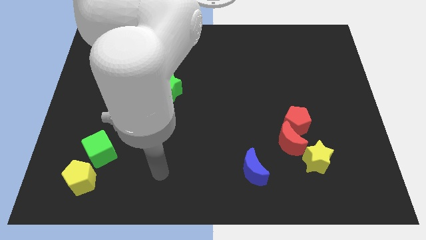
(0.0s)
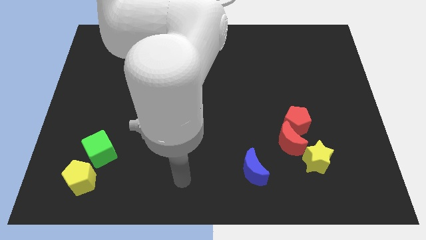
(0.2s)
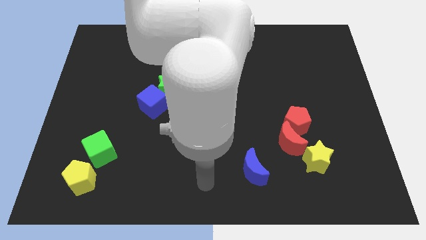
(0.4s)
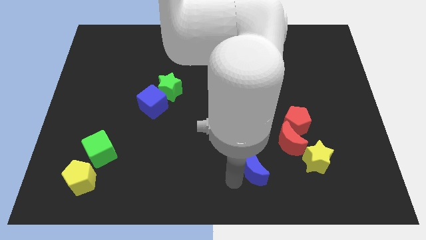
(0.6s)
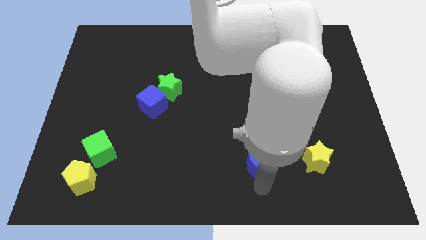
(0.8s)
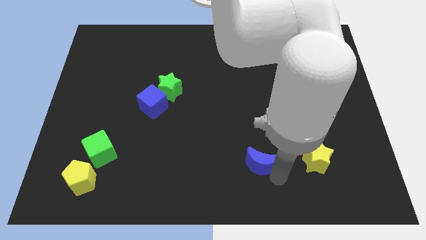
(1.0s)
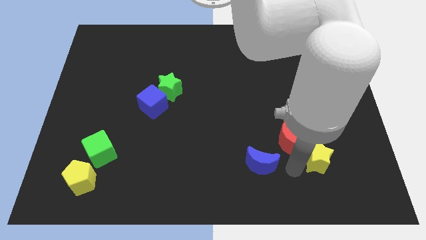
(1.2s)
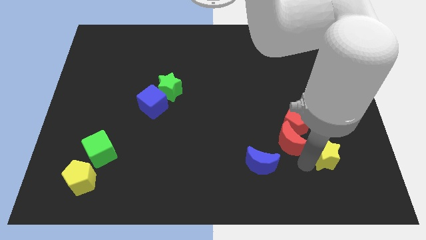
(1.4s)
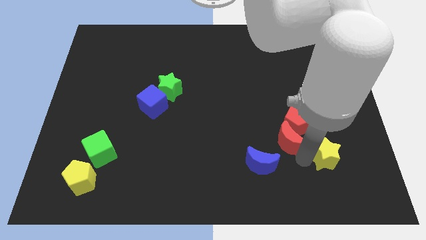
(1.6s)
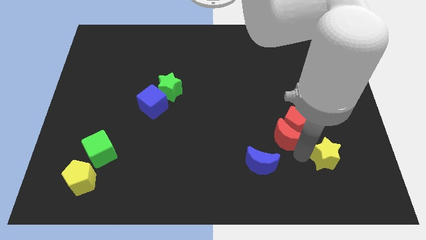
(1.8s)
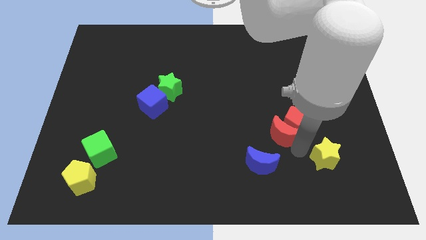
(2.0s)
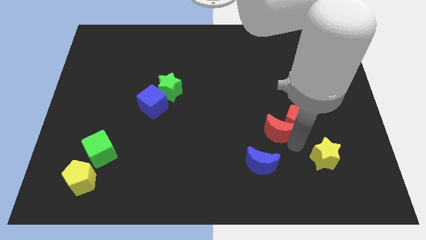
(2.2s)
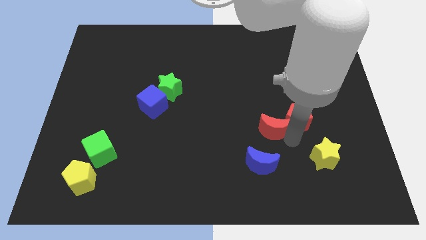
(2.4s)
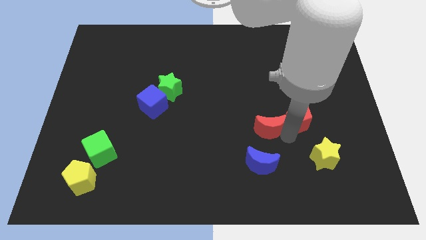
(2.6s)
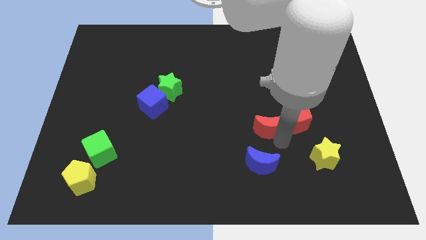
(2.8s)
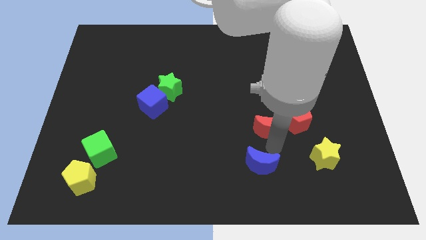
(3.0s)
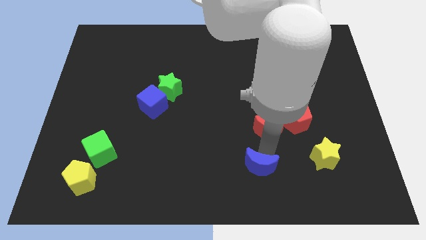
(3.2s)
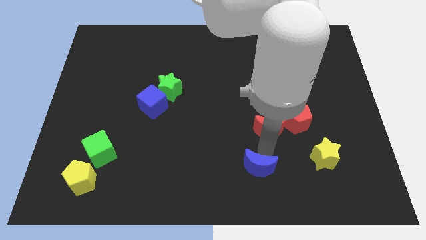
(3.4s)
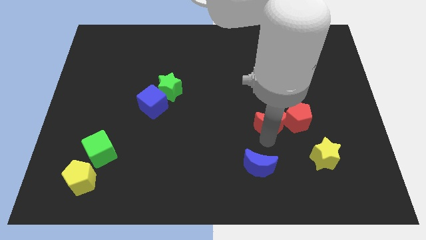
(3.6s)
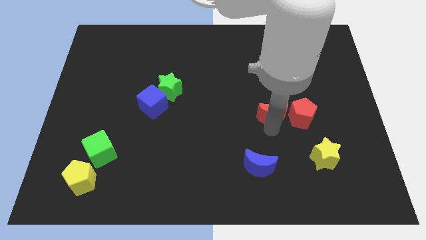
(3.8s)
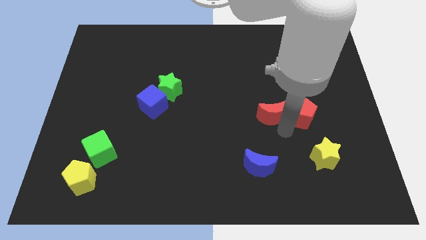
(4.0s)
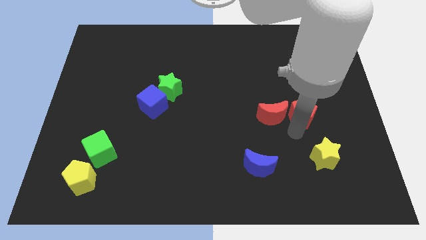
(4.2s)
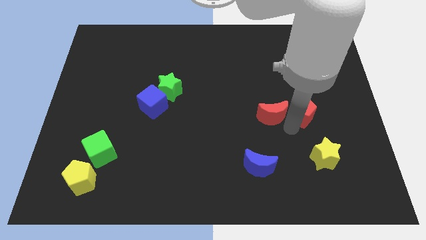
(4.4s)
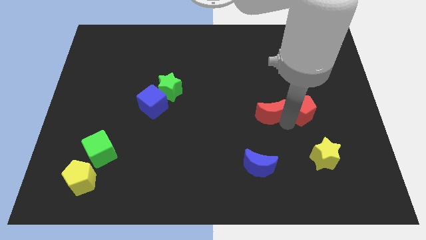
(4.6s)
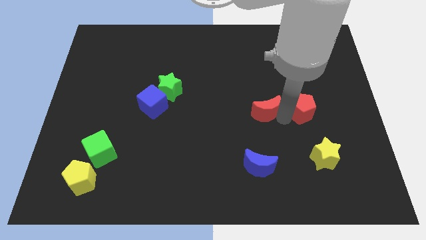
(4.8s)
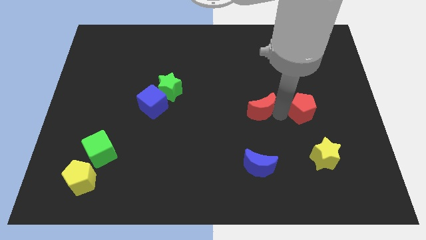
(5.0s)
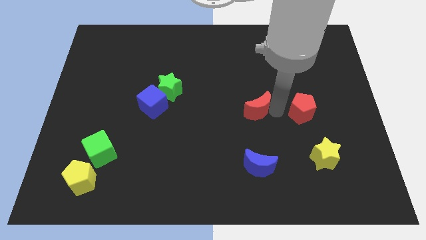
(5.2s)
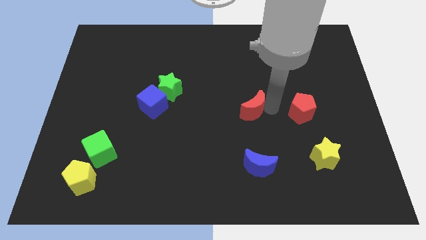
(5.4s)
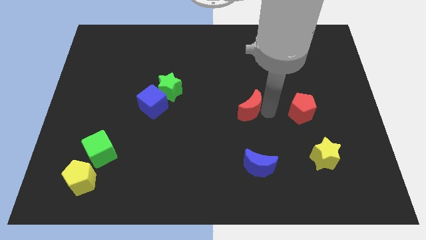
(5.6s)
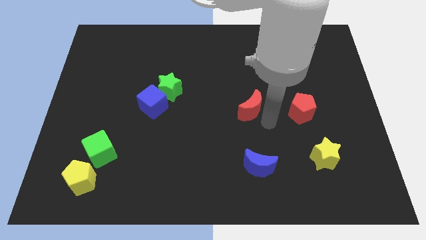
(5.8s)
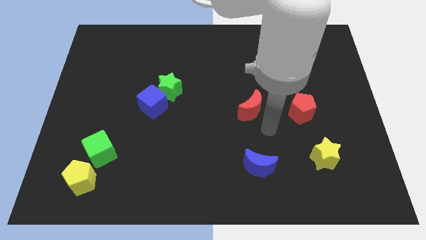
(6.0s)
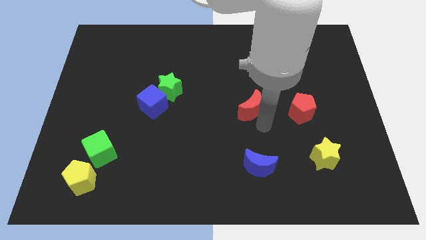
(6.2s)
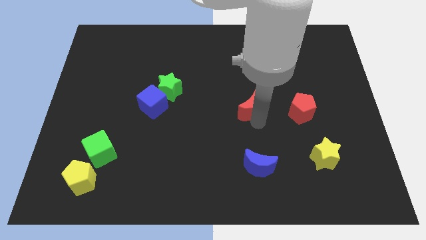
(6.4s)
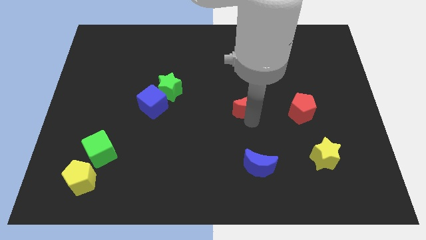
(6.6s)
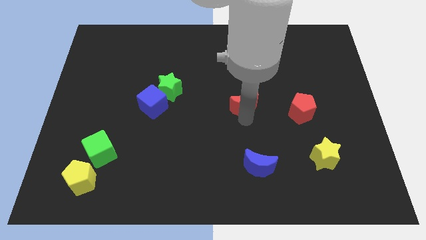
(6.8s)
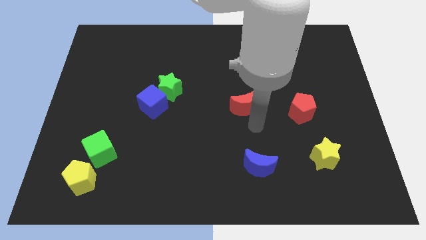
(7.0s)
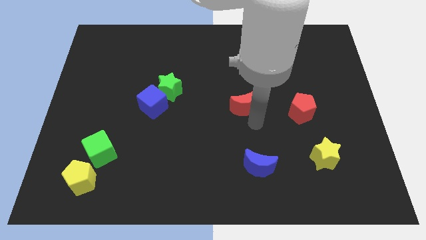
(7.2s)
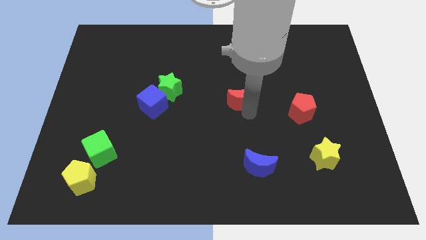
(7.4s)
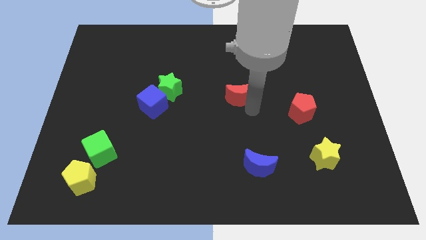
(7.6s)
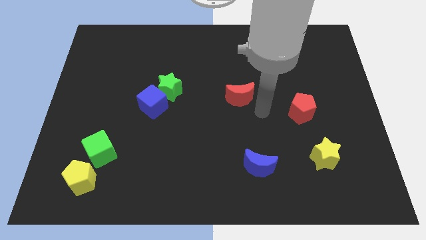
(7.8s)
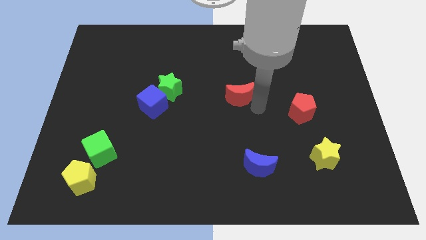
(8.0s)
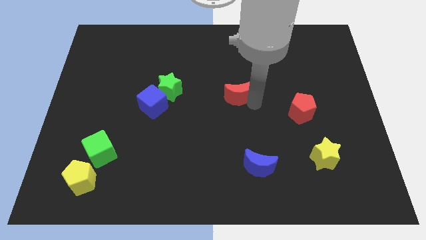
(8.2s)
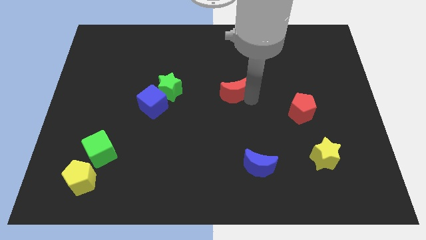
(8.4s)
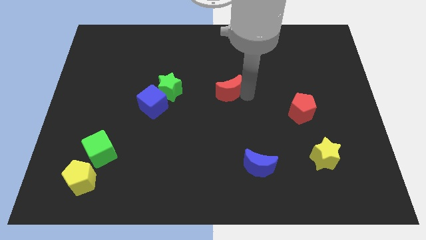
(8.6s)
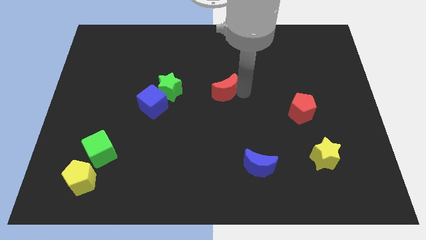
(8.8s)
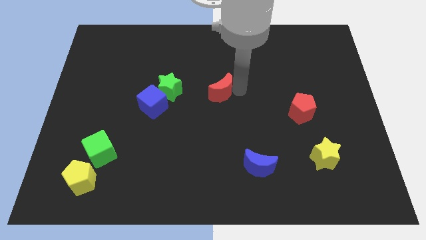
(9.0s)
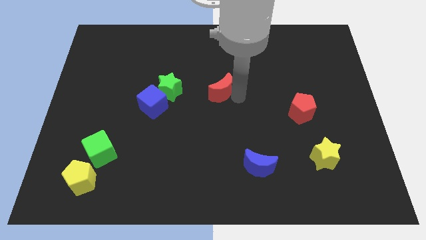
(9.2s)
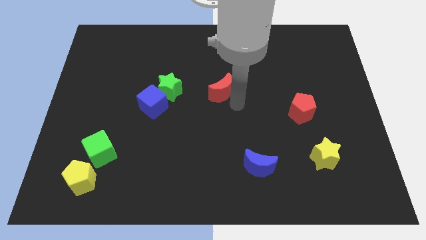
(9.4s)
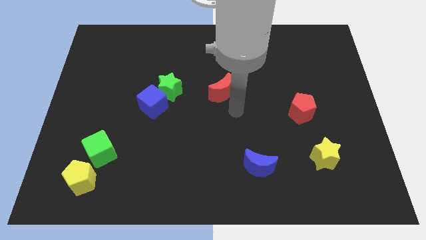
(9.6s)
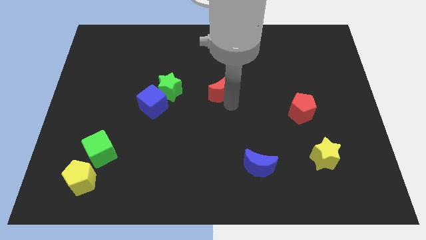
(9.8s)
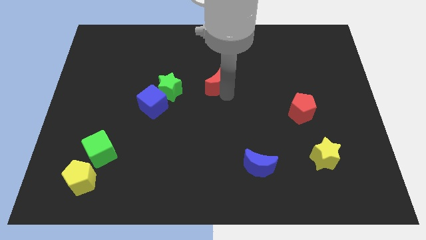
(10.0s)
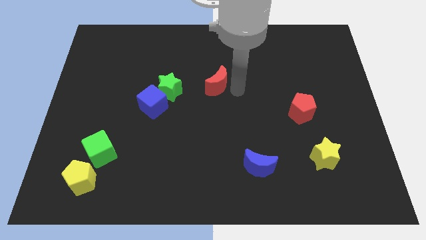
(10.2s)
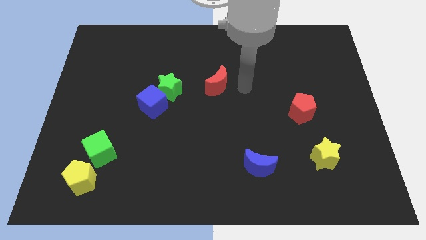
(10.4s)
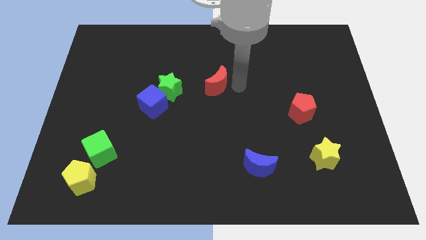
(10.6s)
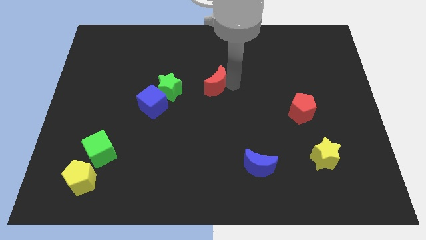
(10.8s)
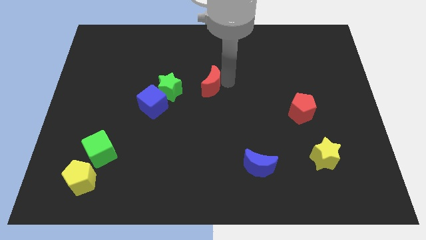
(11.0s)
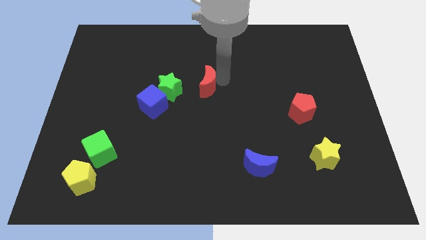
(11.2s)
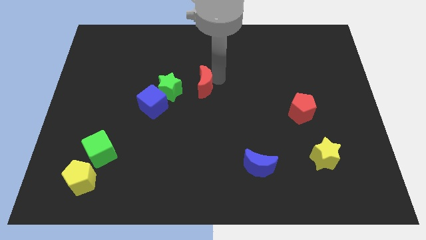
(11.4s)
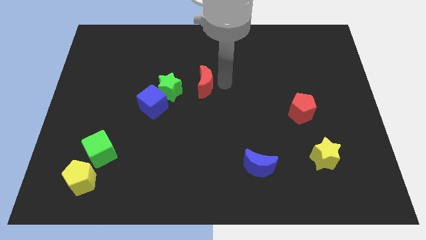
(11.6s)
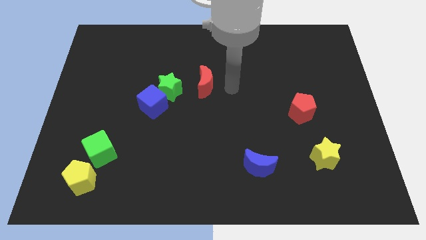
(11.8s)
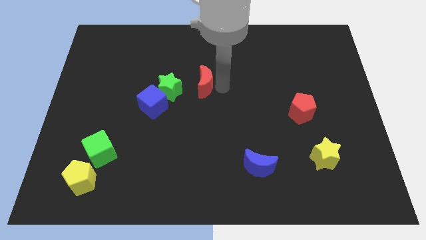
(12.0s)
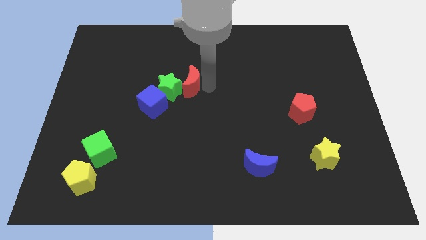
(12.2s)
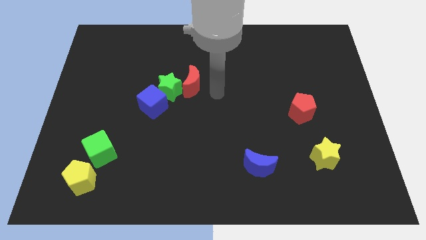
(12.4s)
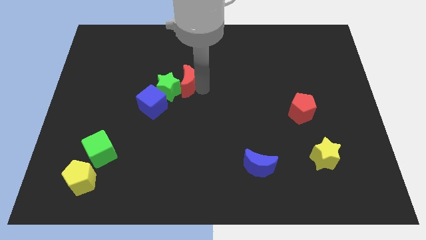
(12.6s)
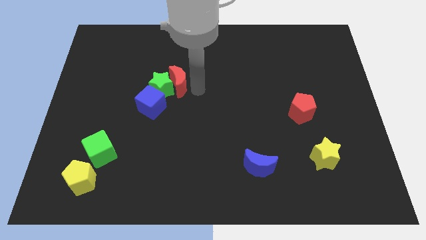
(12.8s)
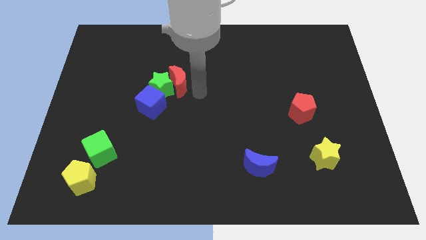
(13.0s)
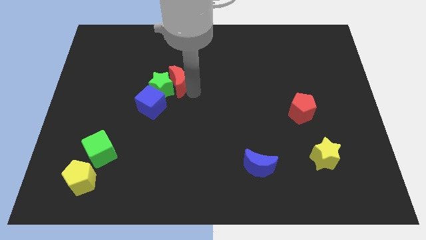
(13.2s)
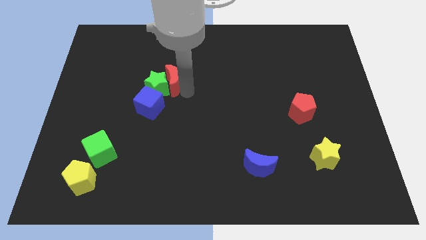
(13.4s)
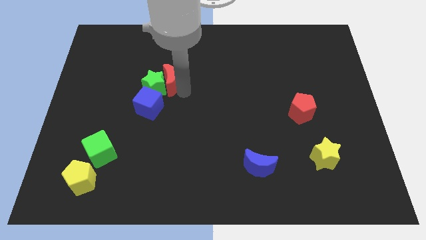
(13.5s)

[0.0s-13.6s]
move the red moon to the top side of the blue cube

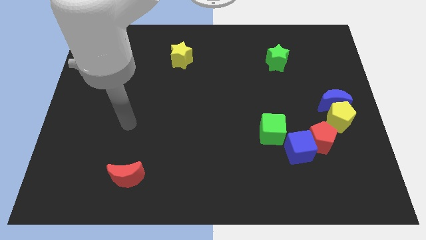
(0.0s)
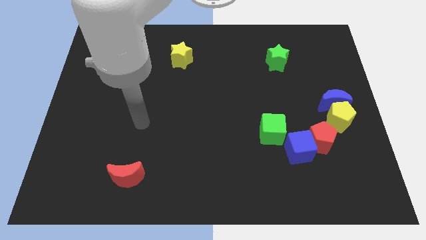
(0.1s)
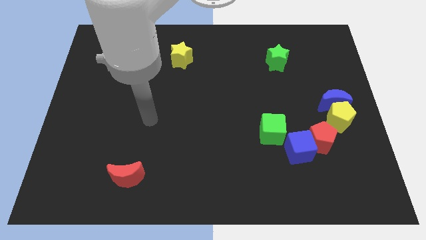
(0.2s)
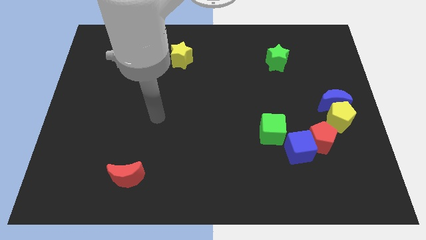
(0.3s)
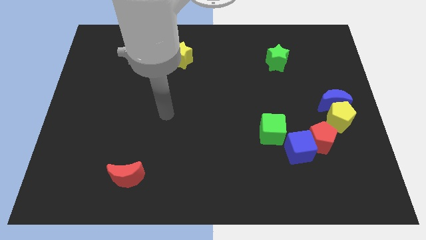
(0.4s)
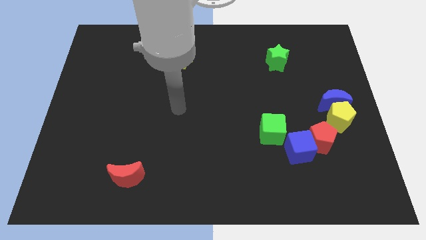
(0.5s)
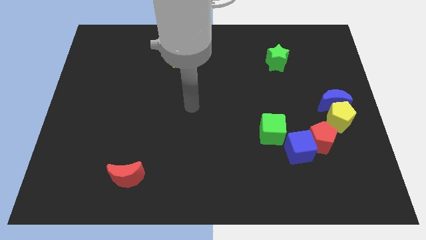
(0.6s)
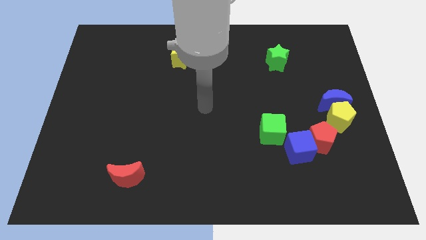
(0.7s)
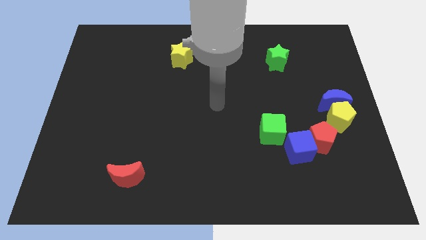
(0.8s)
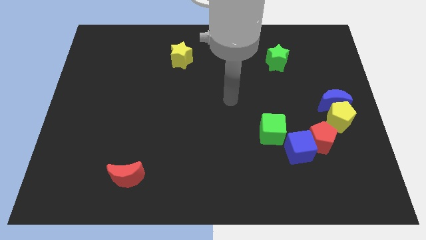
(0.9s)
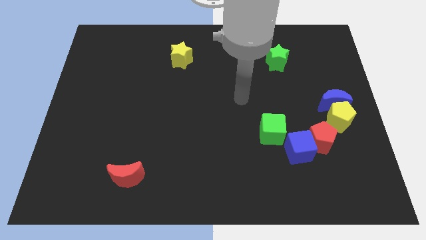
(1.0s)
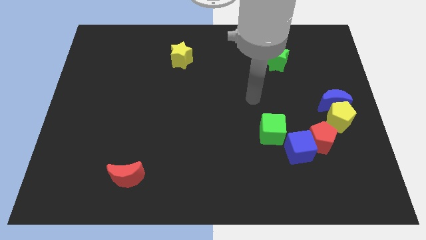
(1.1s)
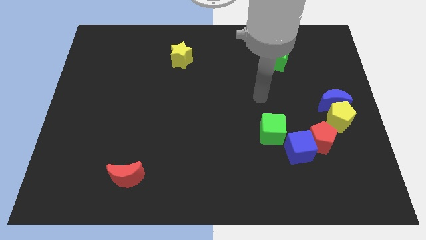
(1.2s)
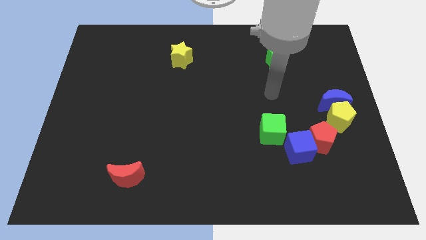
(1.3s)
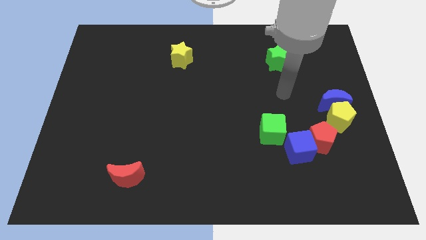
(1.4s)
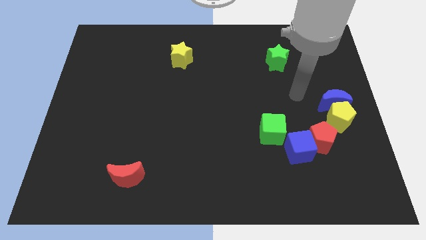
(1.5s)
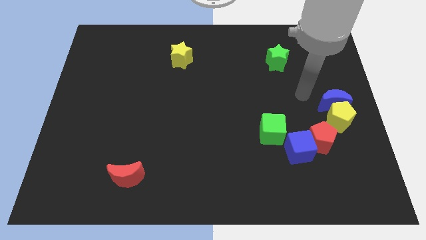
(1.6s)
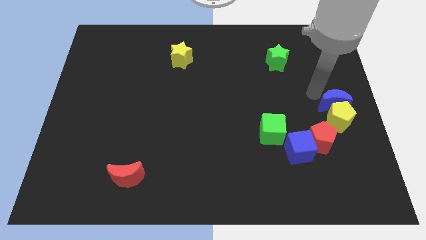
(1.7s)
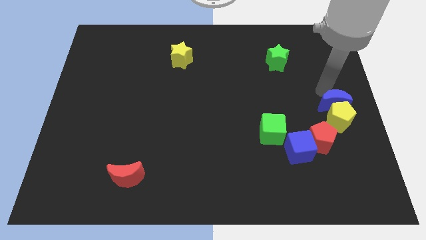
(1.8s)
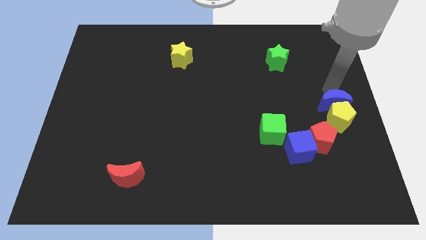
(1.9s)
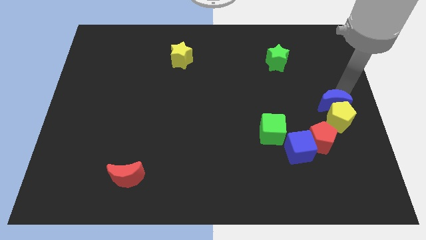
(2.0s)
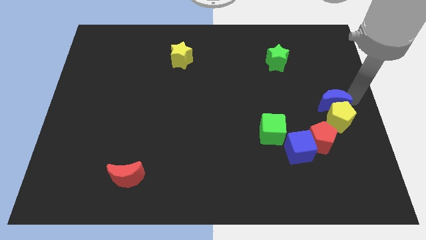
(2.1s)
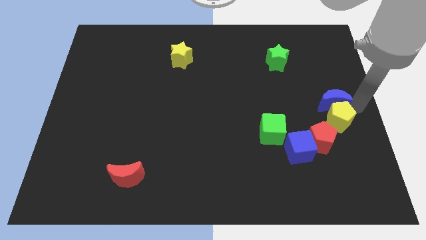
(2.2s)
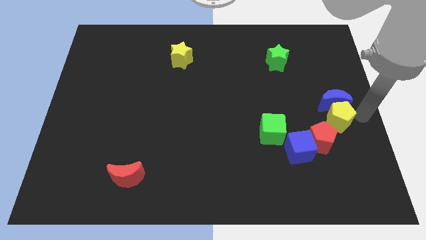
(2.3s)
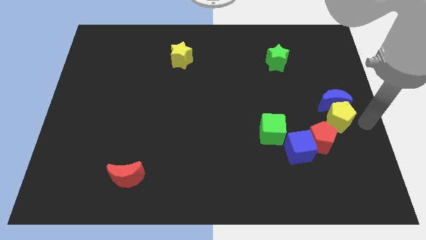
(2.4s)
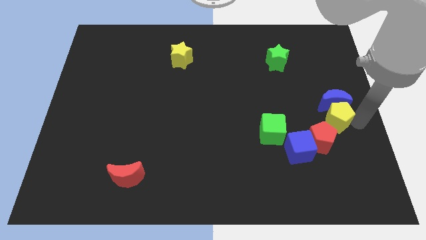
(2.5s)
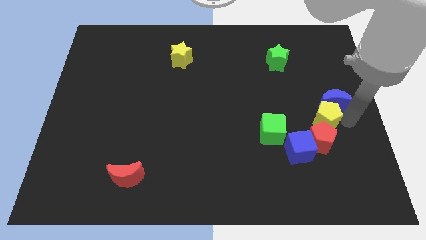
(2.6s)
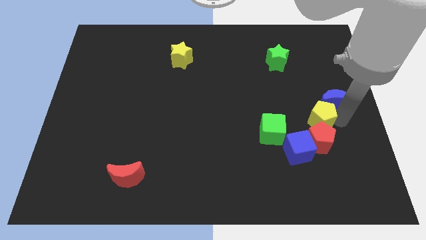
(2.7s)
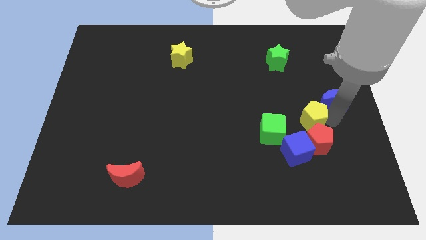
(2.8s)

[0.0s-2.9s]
move the yellow pentagon to the top side of the blue cube
